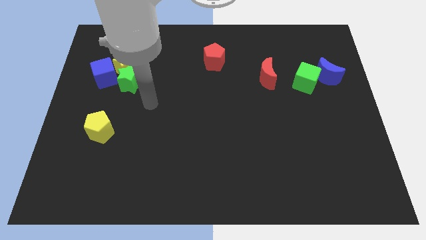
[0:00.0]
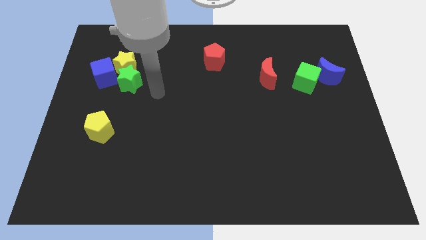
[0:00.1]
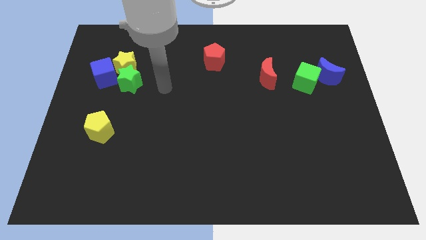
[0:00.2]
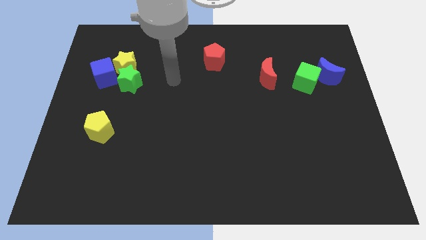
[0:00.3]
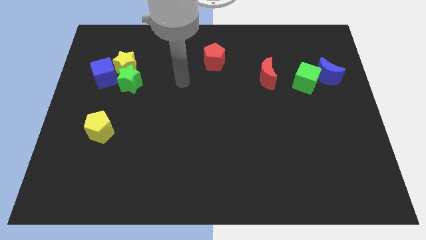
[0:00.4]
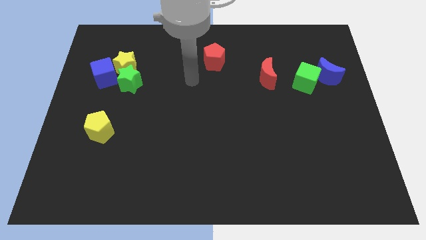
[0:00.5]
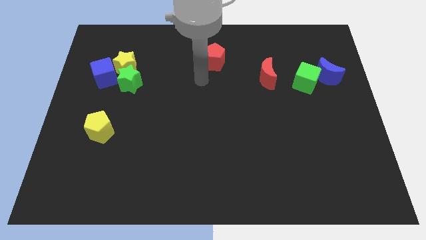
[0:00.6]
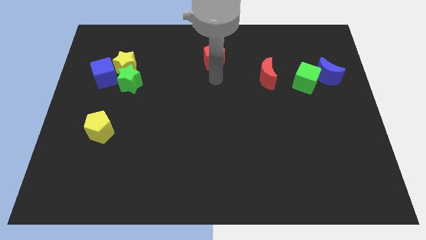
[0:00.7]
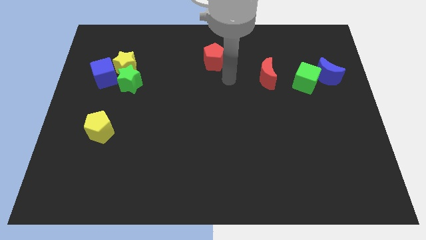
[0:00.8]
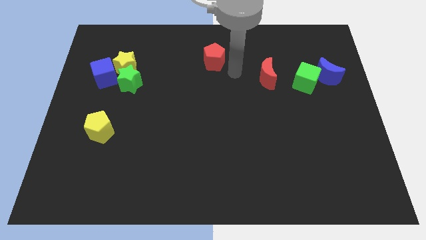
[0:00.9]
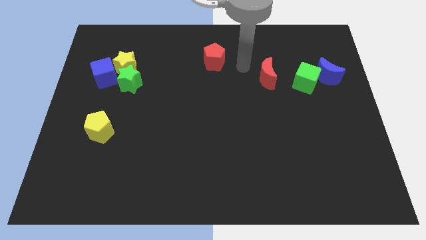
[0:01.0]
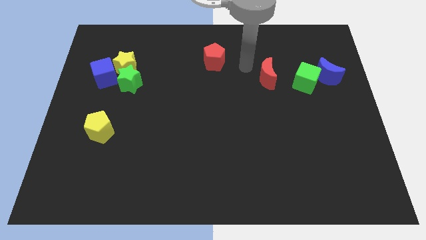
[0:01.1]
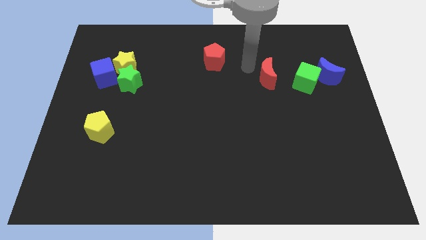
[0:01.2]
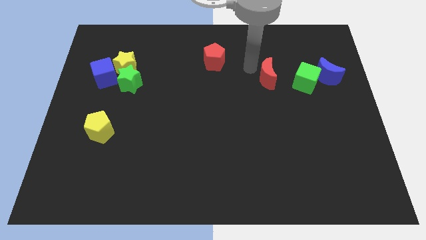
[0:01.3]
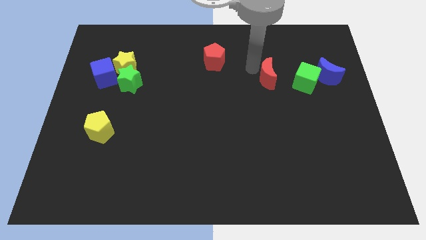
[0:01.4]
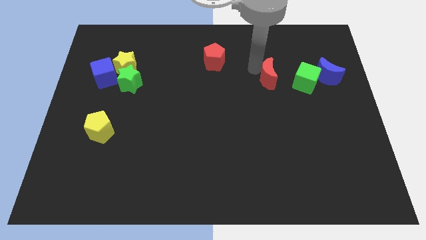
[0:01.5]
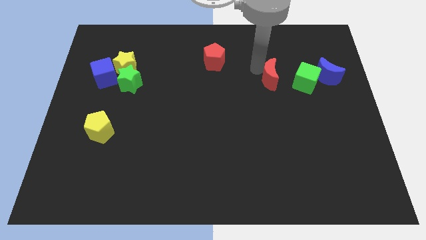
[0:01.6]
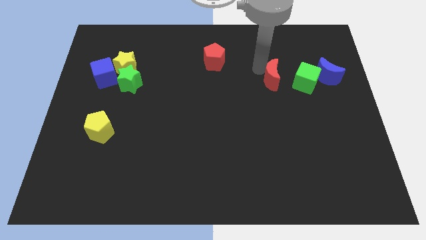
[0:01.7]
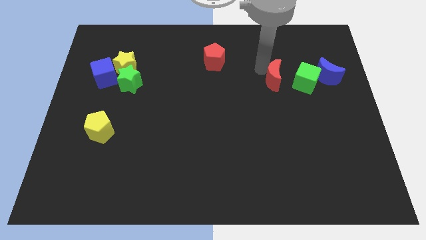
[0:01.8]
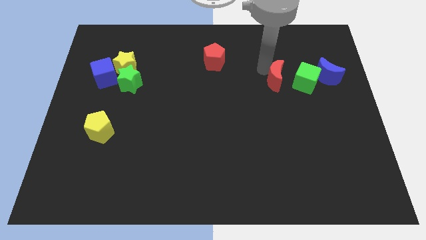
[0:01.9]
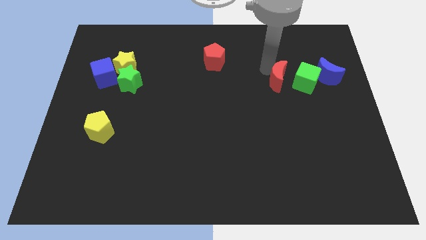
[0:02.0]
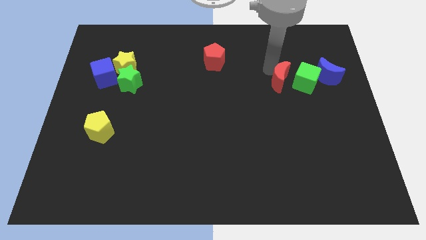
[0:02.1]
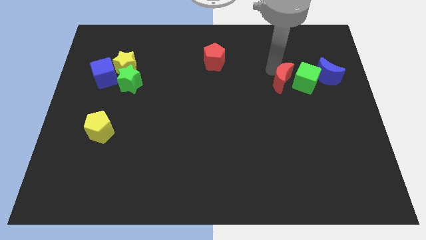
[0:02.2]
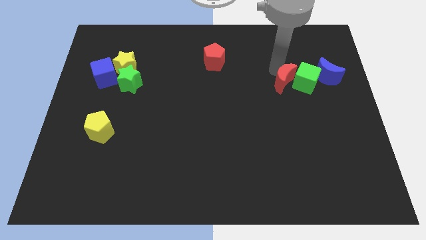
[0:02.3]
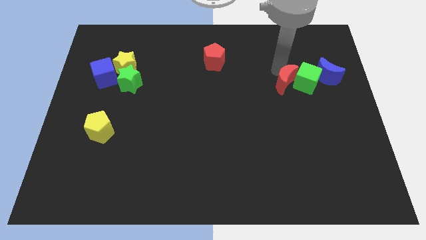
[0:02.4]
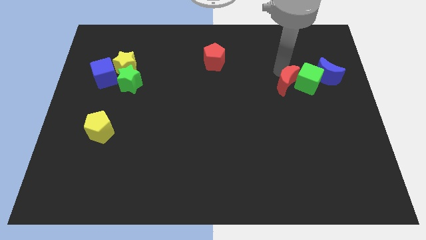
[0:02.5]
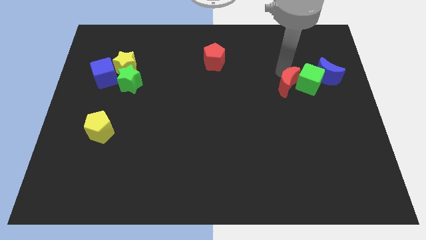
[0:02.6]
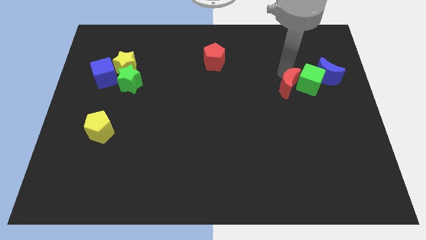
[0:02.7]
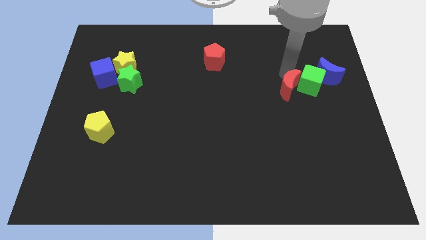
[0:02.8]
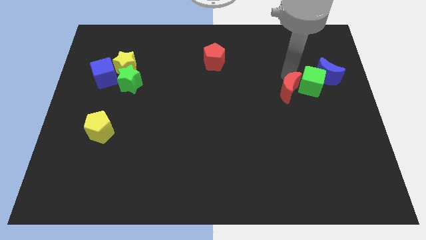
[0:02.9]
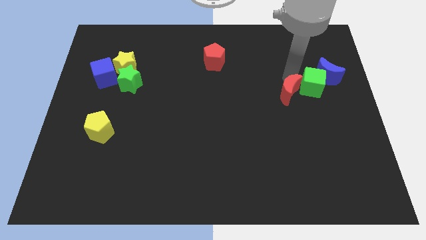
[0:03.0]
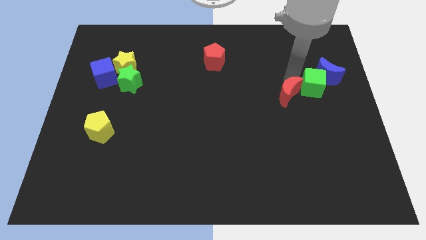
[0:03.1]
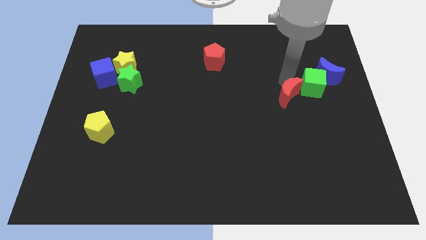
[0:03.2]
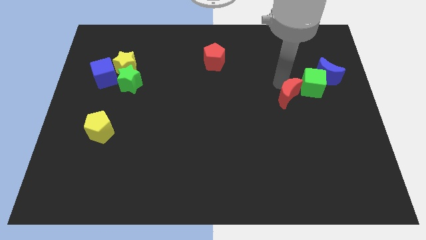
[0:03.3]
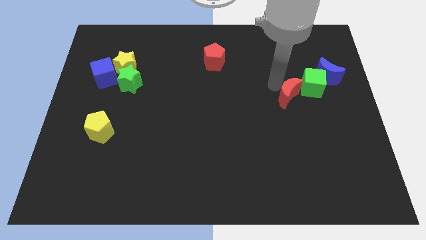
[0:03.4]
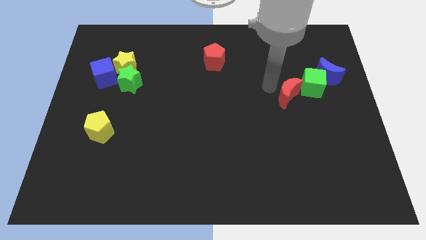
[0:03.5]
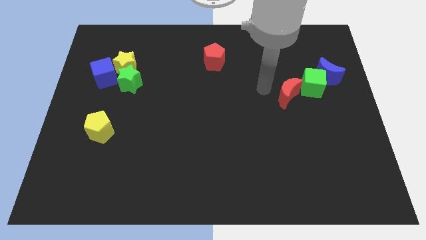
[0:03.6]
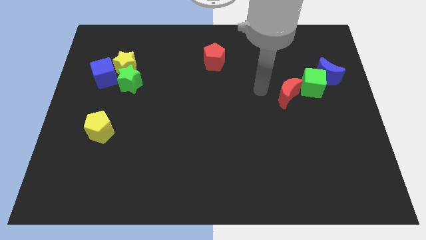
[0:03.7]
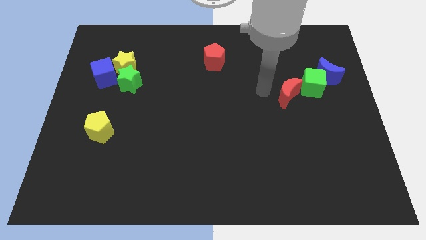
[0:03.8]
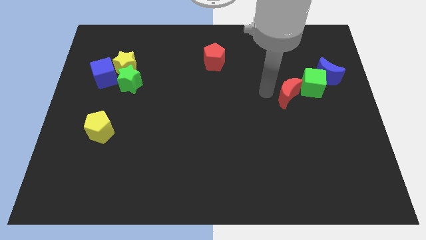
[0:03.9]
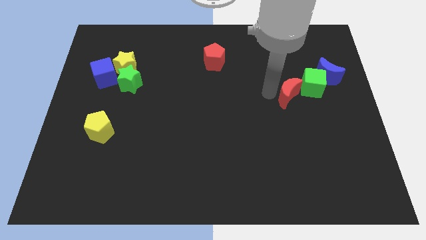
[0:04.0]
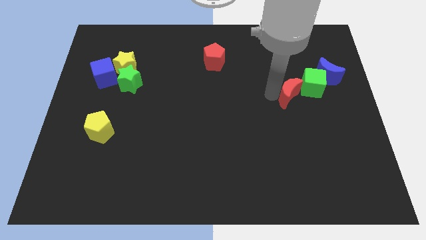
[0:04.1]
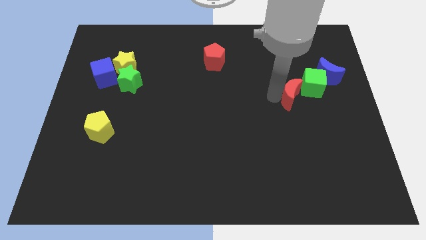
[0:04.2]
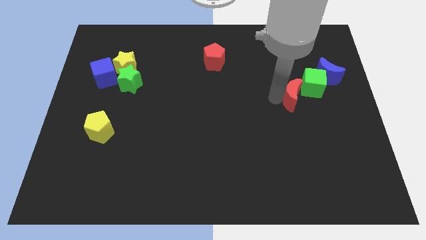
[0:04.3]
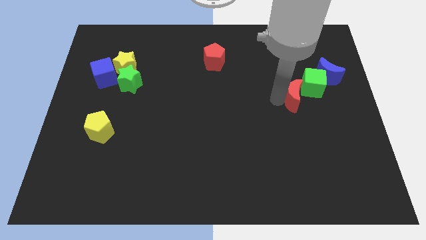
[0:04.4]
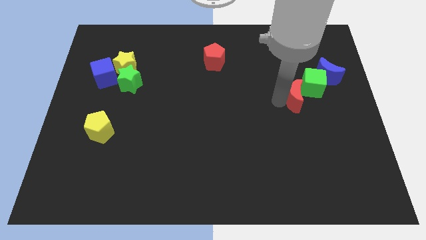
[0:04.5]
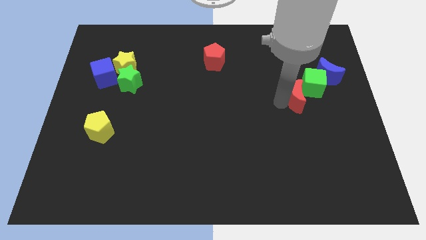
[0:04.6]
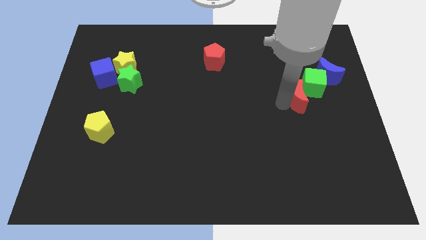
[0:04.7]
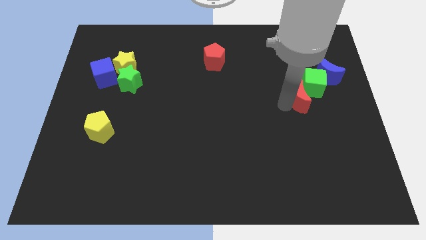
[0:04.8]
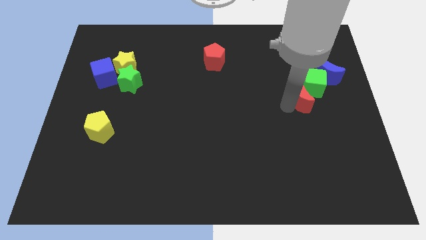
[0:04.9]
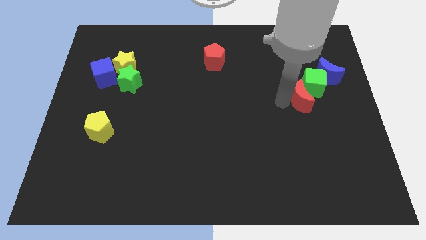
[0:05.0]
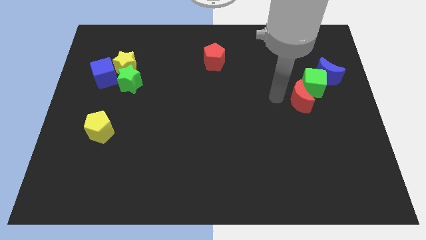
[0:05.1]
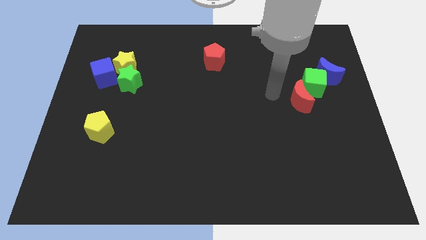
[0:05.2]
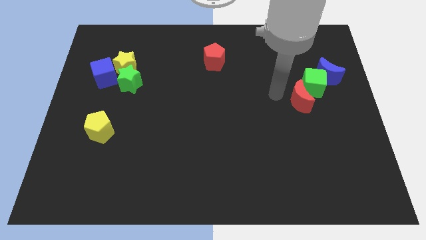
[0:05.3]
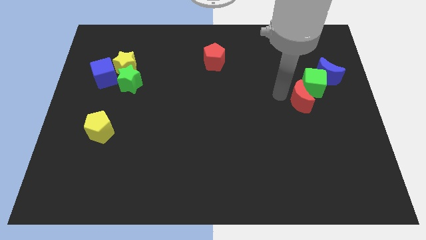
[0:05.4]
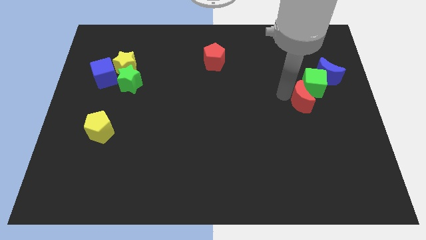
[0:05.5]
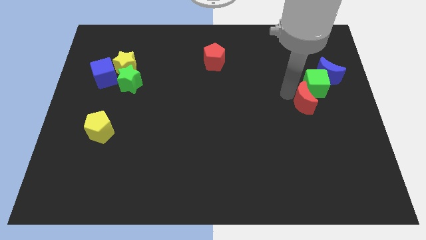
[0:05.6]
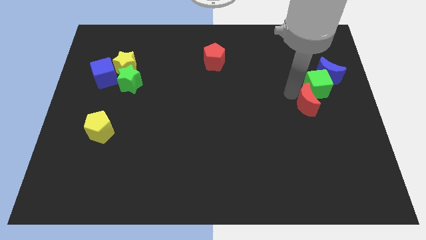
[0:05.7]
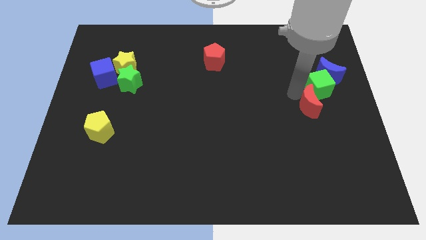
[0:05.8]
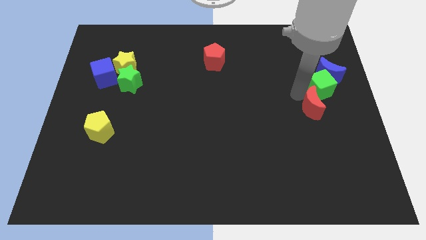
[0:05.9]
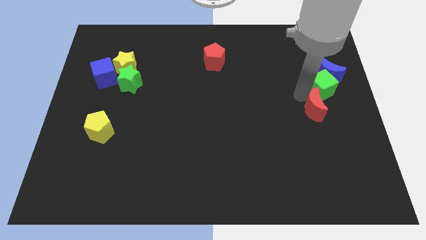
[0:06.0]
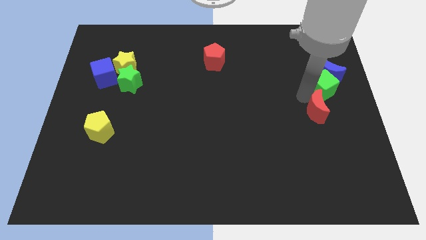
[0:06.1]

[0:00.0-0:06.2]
slide the red moon to the bottom side of the blue moon

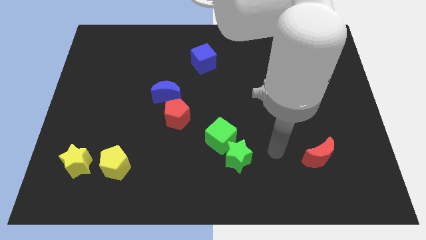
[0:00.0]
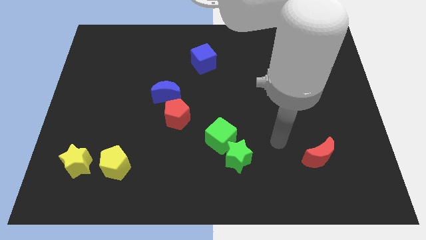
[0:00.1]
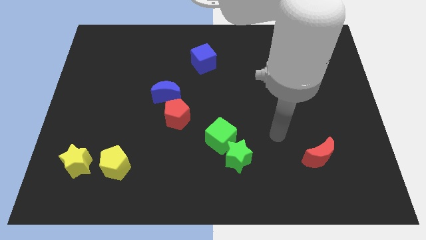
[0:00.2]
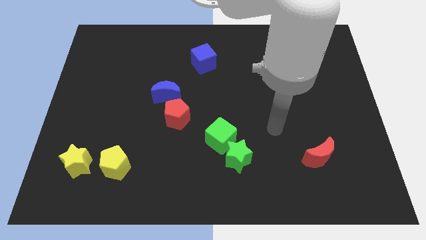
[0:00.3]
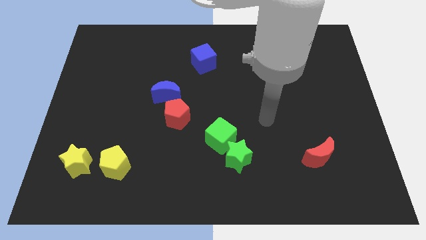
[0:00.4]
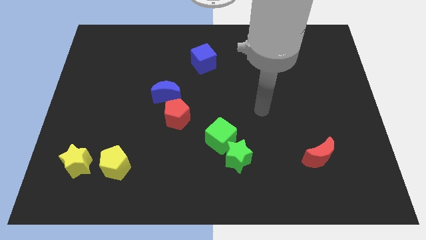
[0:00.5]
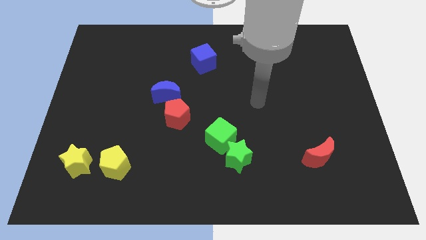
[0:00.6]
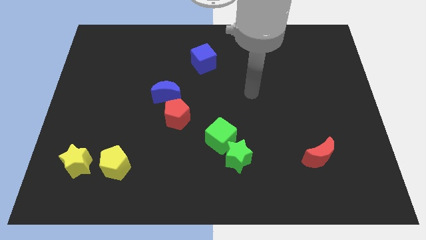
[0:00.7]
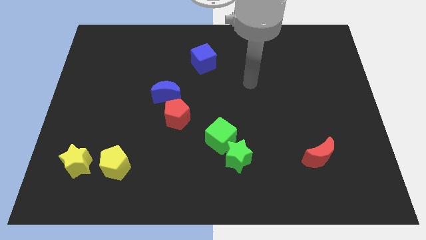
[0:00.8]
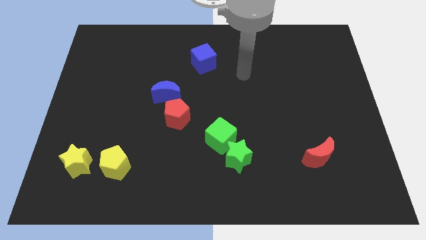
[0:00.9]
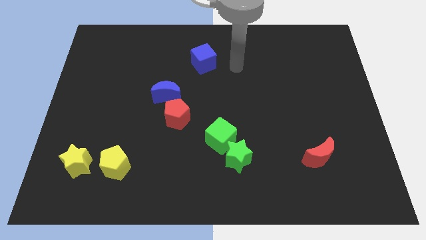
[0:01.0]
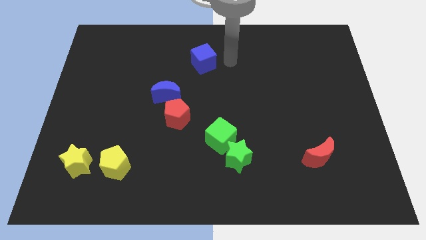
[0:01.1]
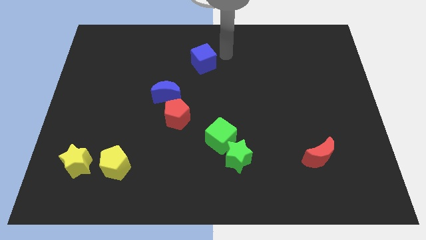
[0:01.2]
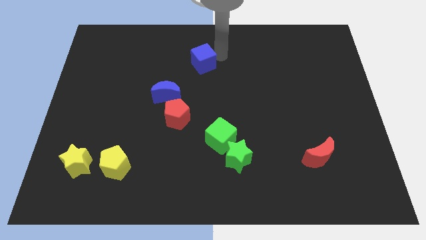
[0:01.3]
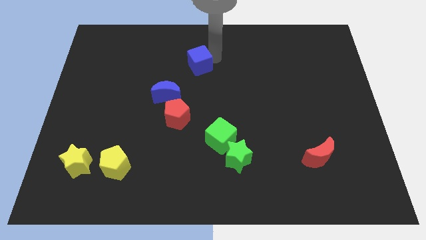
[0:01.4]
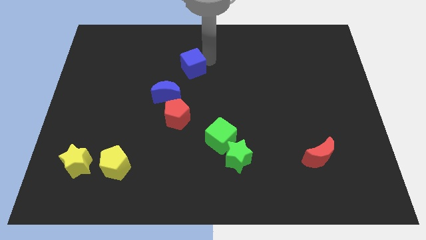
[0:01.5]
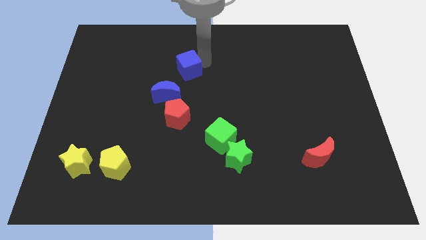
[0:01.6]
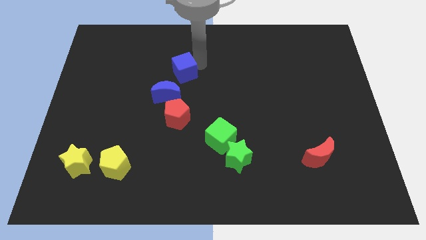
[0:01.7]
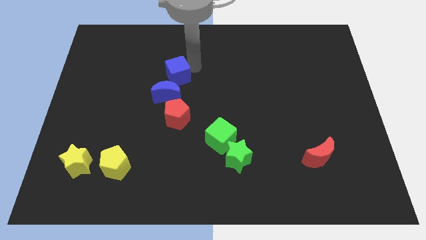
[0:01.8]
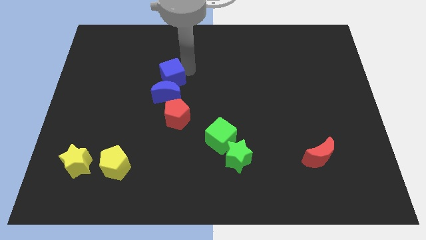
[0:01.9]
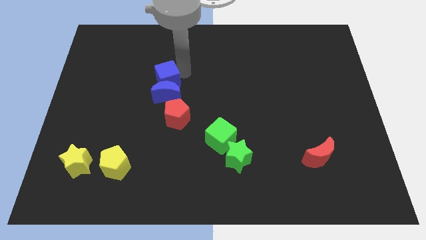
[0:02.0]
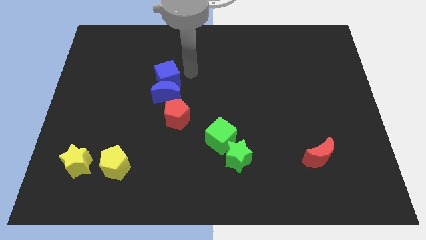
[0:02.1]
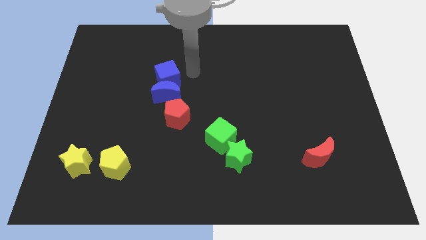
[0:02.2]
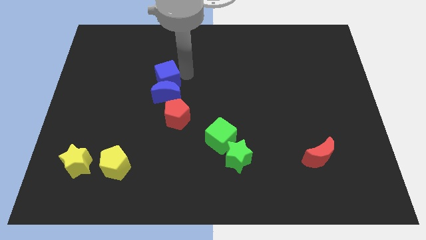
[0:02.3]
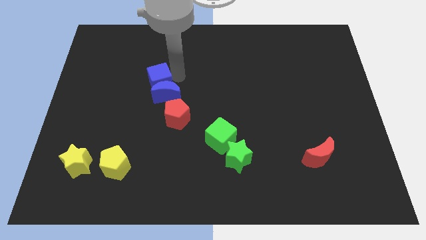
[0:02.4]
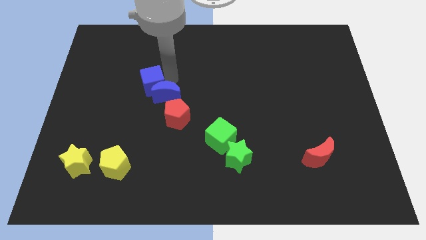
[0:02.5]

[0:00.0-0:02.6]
push the blue cube left of the blue moon
